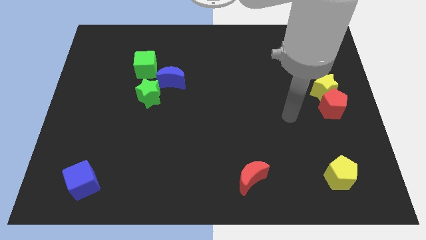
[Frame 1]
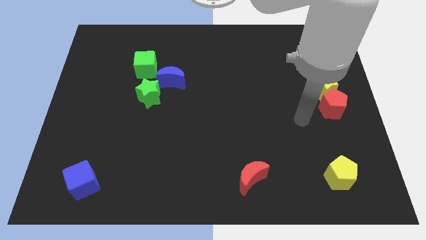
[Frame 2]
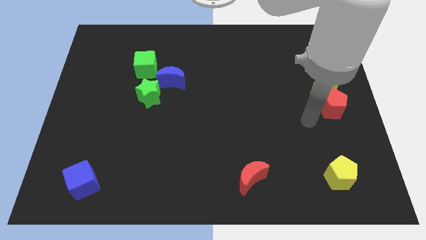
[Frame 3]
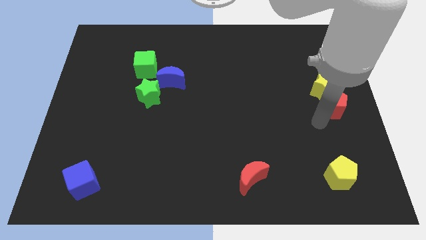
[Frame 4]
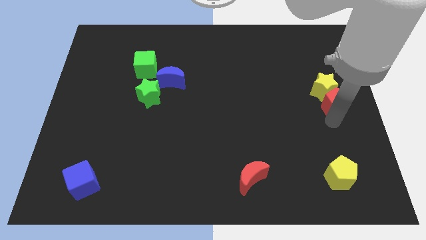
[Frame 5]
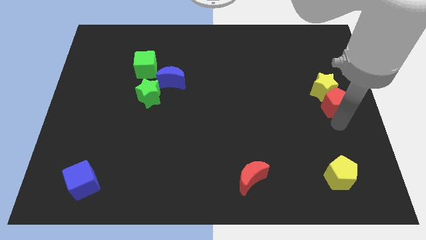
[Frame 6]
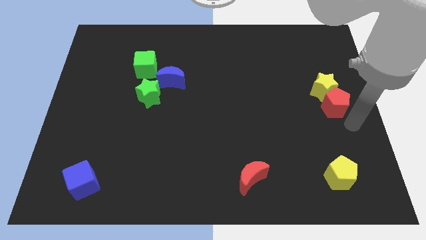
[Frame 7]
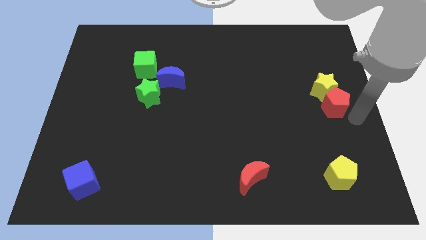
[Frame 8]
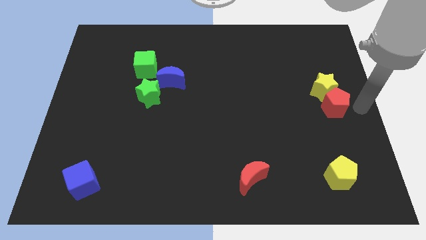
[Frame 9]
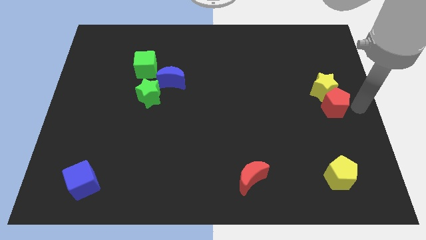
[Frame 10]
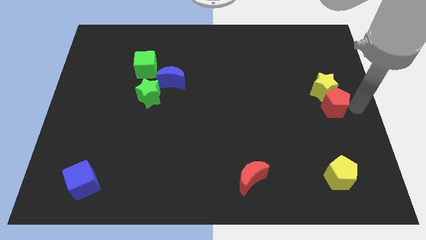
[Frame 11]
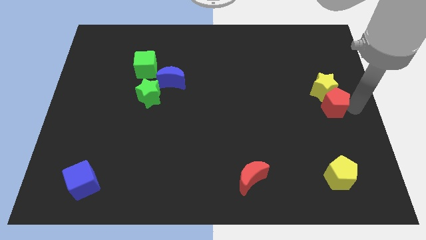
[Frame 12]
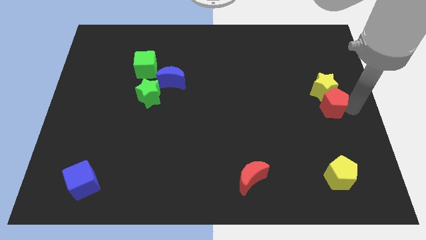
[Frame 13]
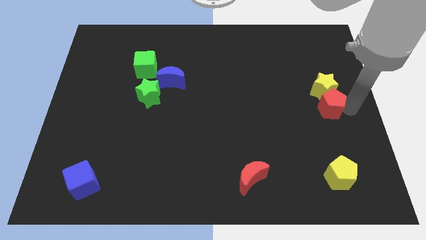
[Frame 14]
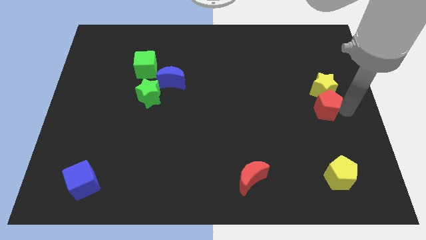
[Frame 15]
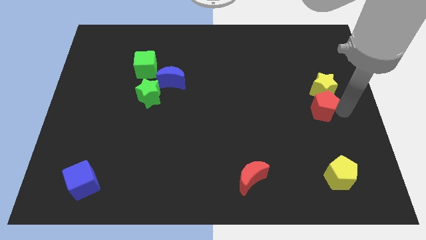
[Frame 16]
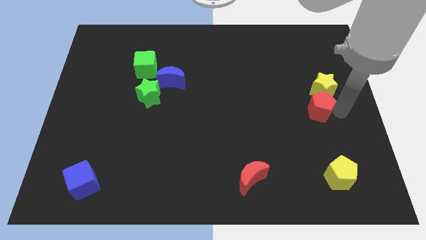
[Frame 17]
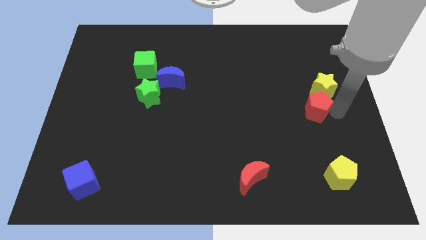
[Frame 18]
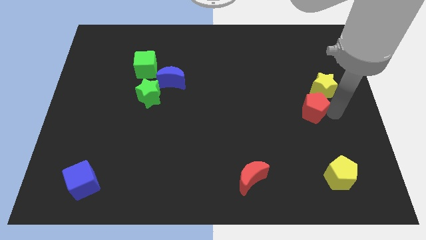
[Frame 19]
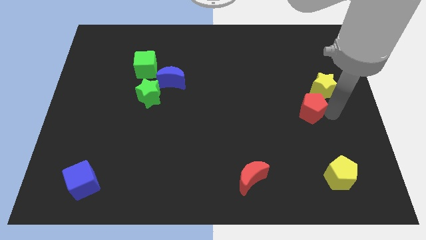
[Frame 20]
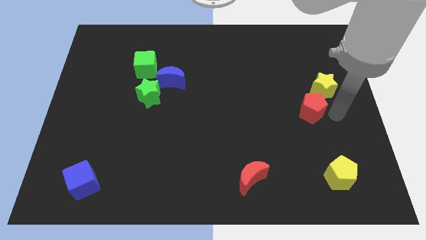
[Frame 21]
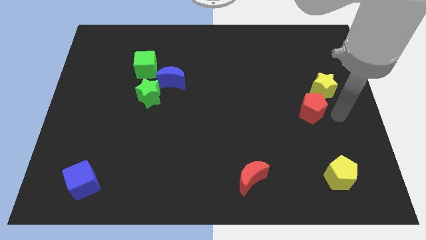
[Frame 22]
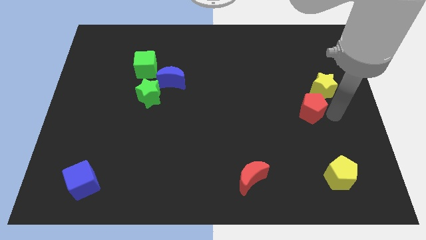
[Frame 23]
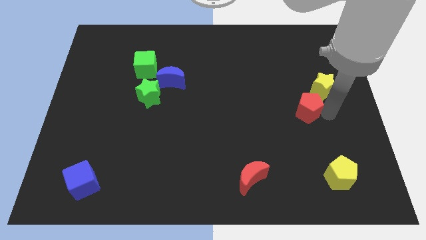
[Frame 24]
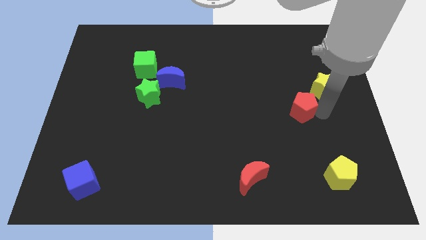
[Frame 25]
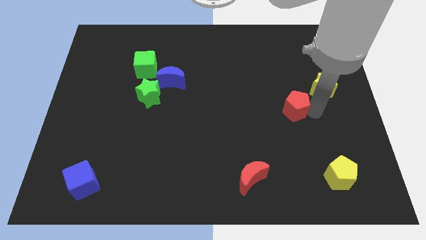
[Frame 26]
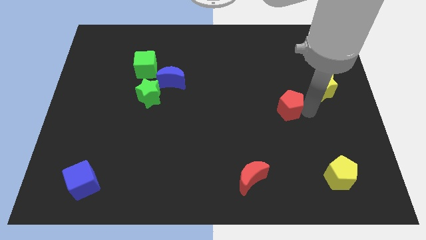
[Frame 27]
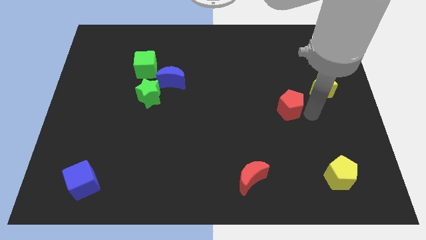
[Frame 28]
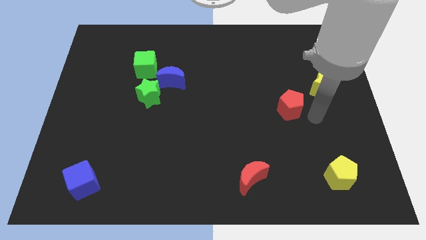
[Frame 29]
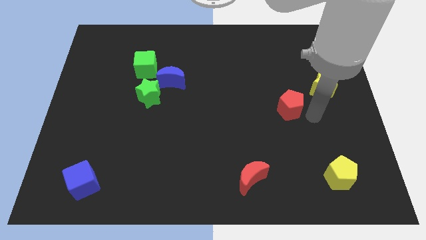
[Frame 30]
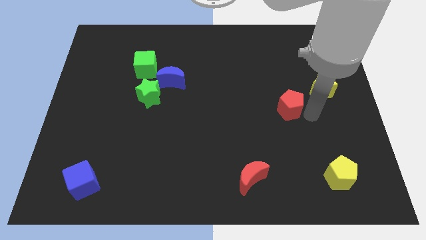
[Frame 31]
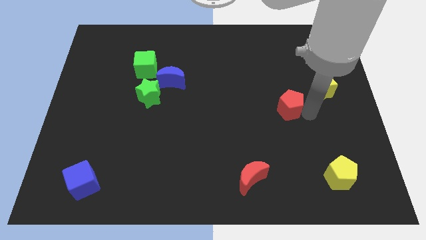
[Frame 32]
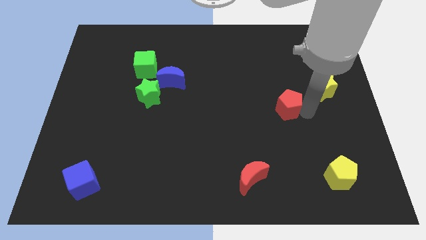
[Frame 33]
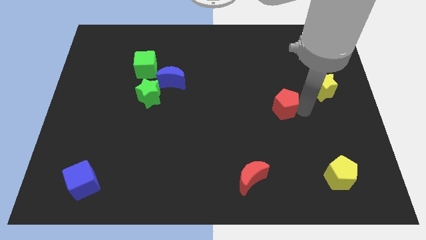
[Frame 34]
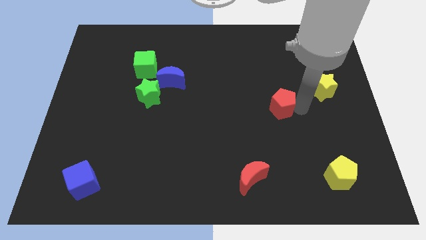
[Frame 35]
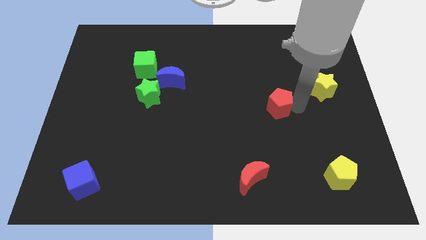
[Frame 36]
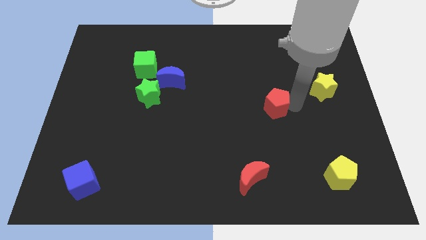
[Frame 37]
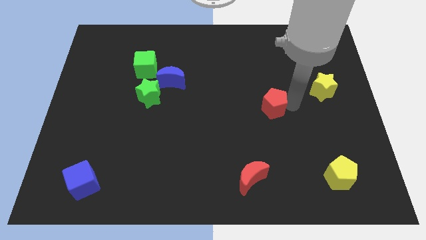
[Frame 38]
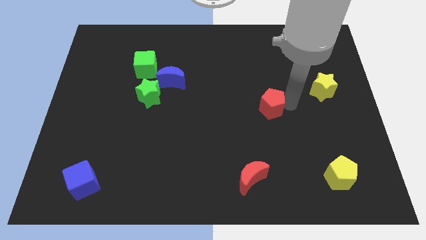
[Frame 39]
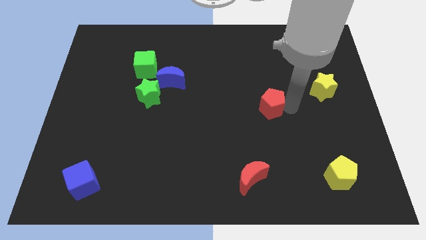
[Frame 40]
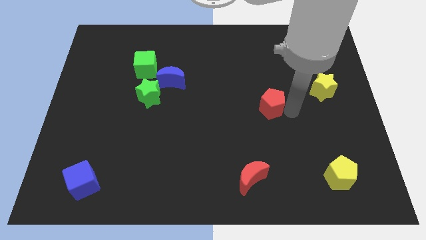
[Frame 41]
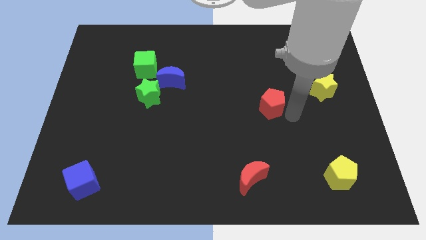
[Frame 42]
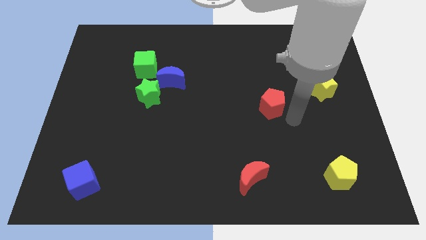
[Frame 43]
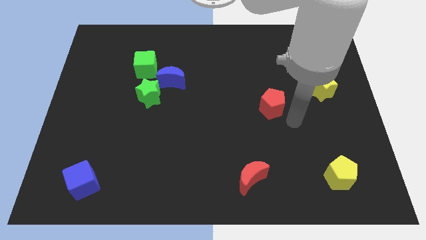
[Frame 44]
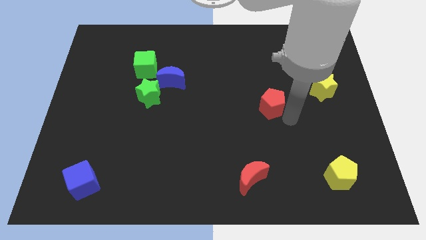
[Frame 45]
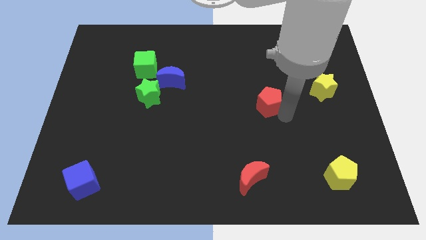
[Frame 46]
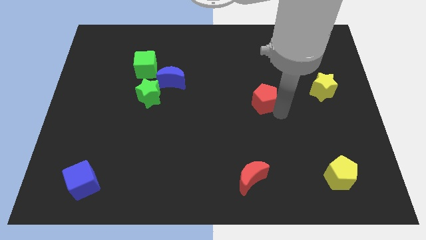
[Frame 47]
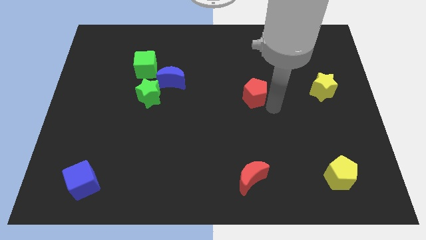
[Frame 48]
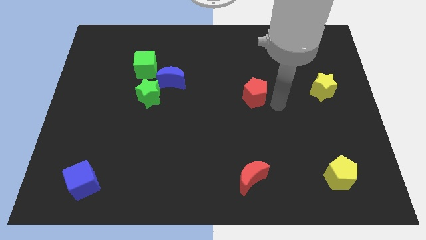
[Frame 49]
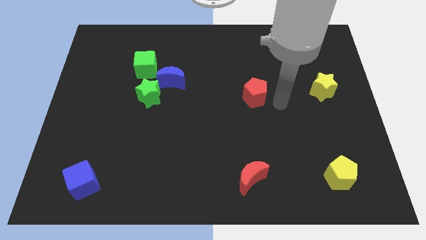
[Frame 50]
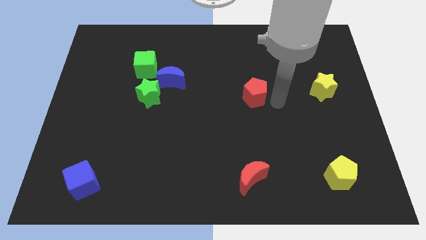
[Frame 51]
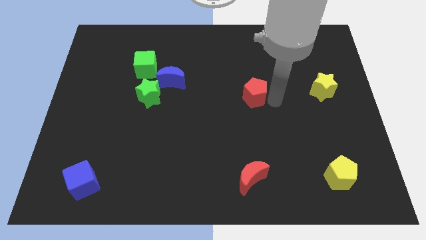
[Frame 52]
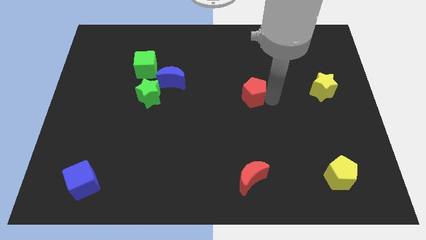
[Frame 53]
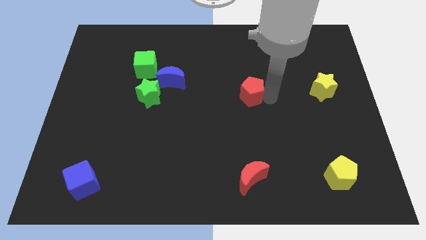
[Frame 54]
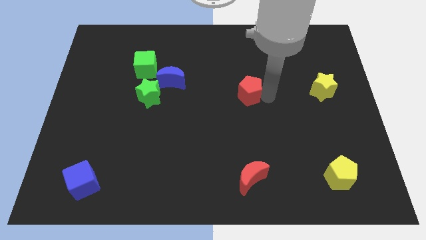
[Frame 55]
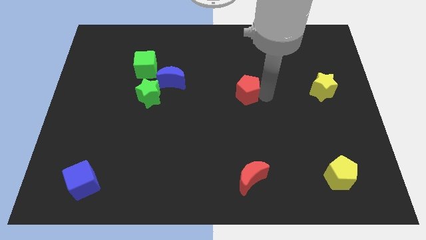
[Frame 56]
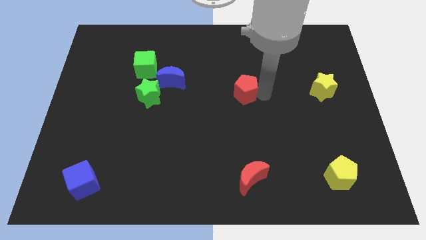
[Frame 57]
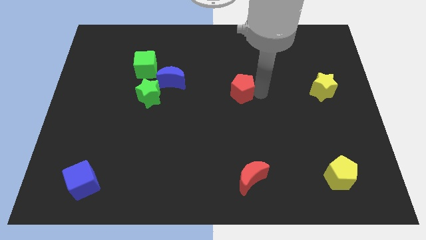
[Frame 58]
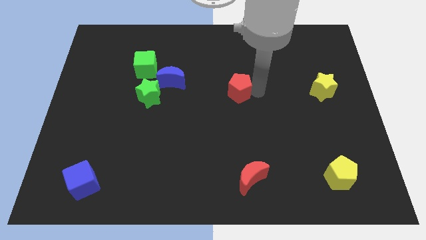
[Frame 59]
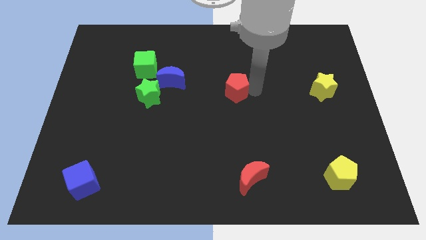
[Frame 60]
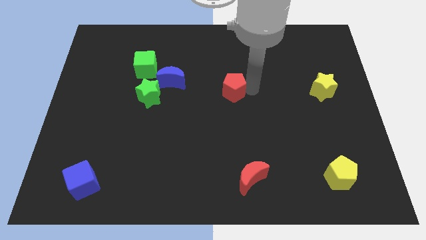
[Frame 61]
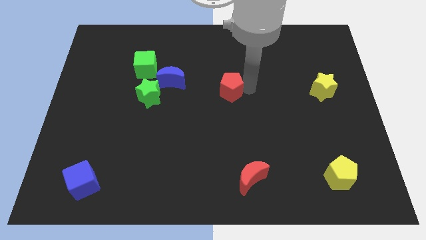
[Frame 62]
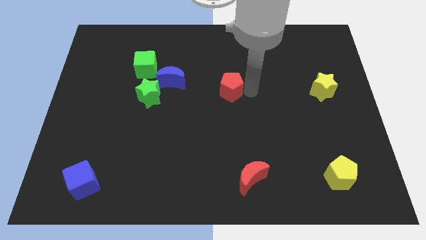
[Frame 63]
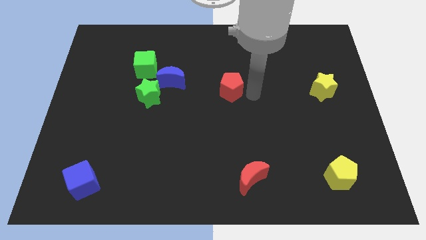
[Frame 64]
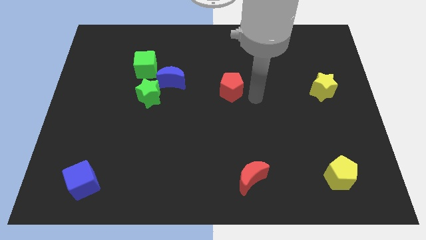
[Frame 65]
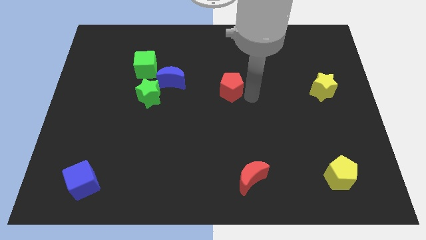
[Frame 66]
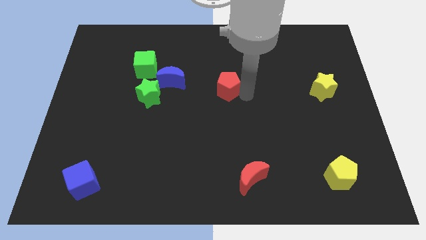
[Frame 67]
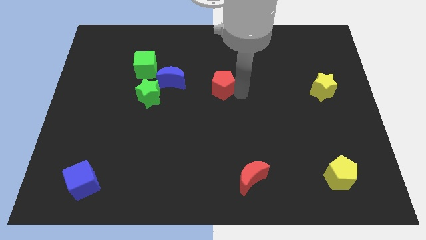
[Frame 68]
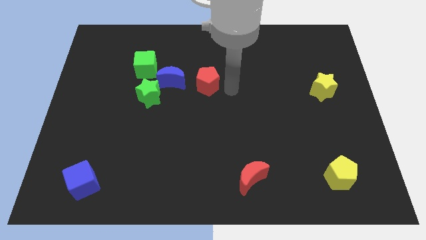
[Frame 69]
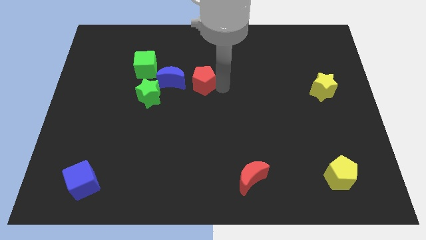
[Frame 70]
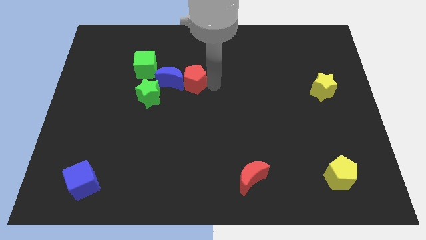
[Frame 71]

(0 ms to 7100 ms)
move the red pentagon to the blue moon

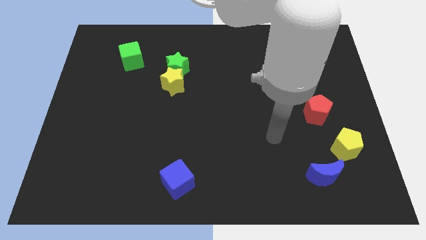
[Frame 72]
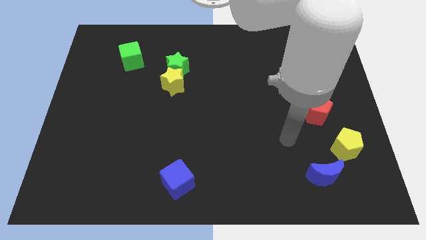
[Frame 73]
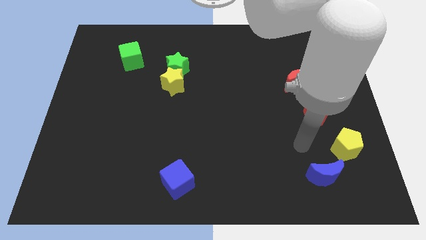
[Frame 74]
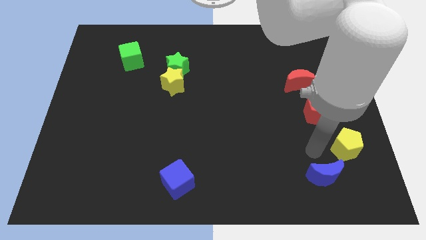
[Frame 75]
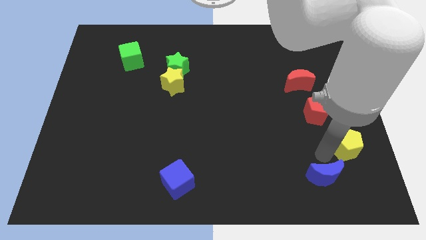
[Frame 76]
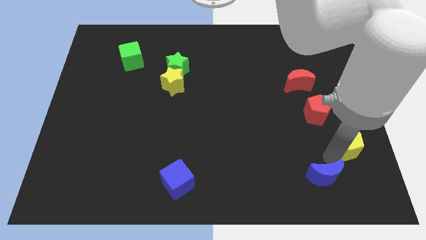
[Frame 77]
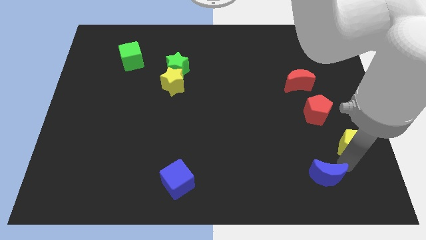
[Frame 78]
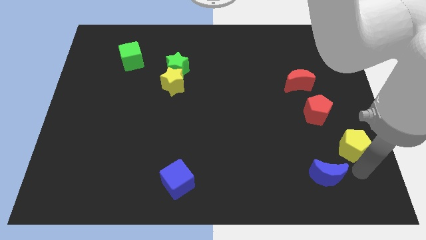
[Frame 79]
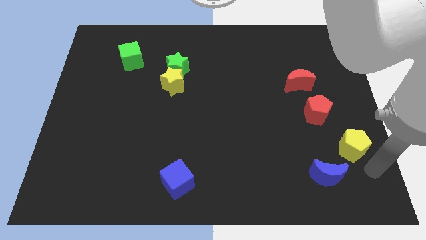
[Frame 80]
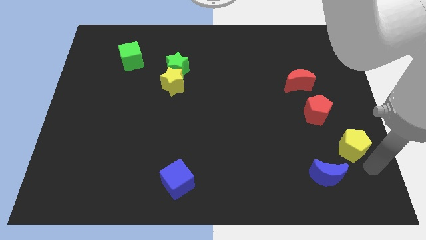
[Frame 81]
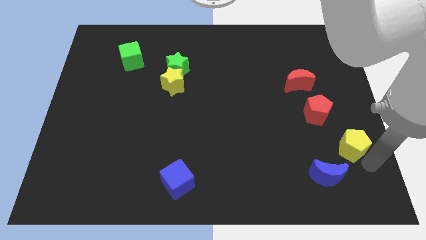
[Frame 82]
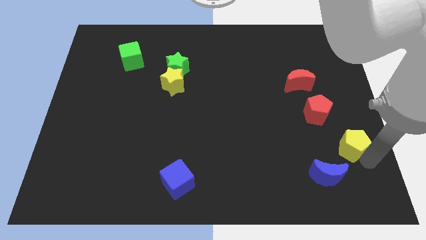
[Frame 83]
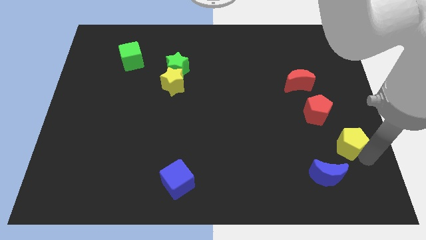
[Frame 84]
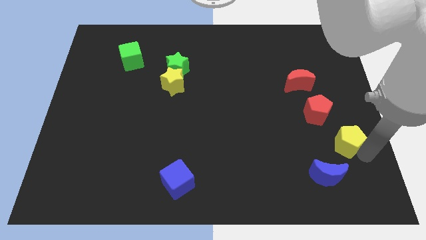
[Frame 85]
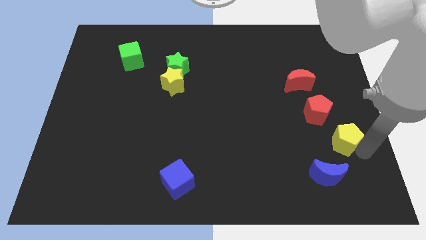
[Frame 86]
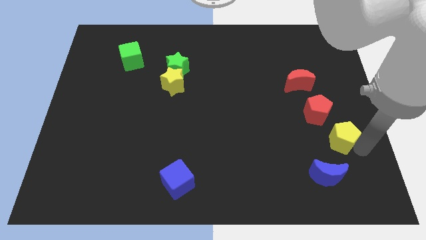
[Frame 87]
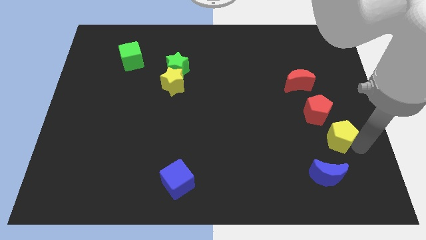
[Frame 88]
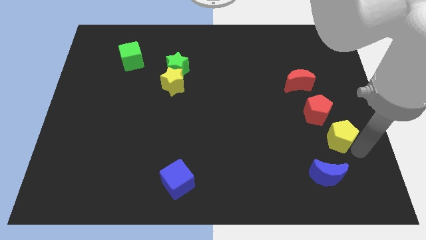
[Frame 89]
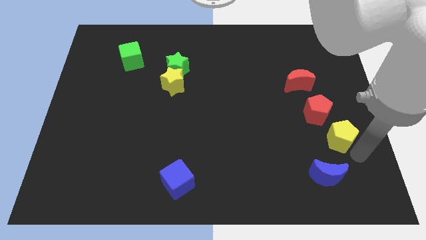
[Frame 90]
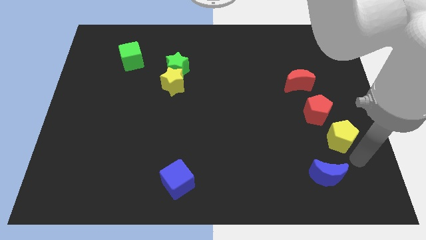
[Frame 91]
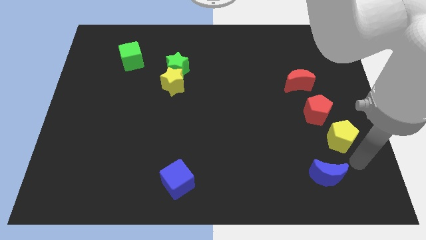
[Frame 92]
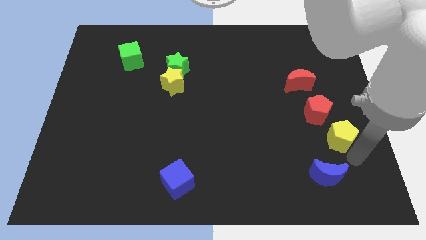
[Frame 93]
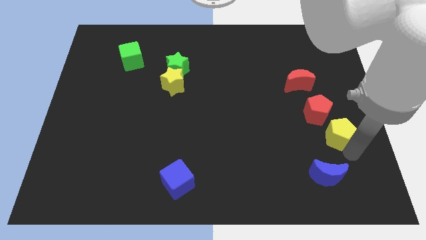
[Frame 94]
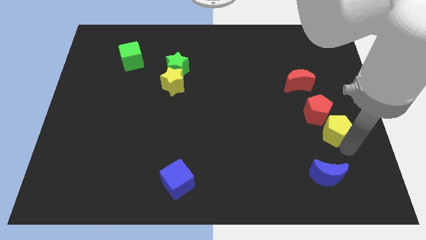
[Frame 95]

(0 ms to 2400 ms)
slide the yellow pentagon to the red pentagon
